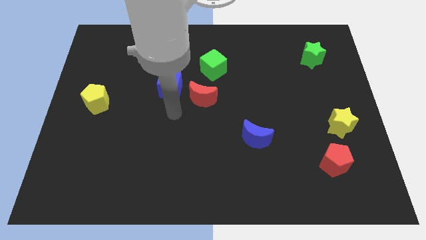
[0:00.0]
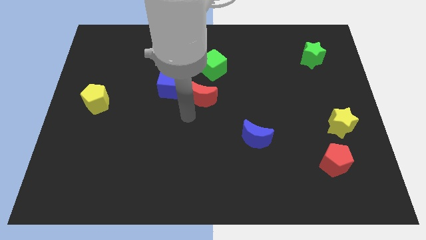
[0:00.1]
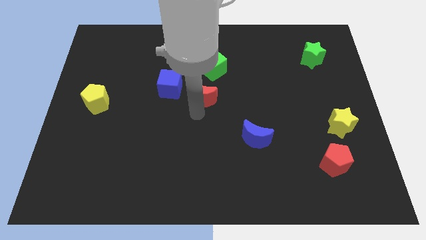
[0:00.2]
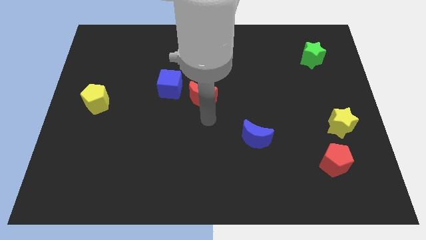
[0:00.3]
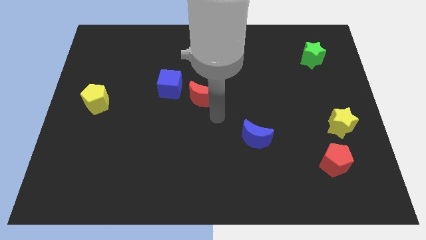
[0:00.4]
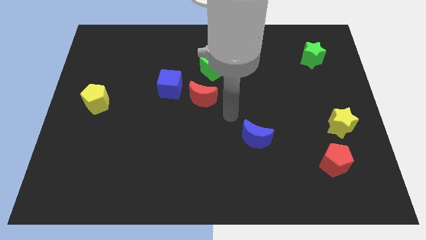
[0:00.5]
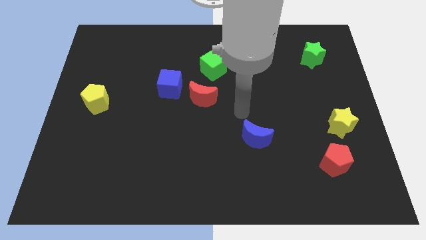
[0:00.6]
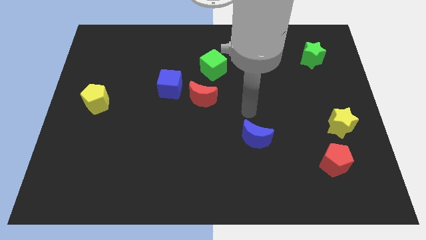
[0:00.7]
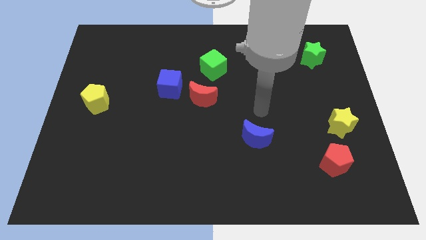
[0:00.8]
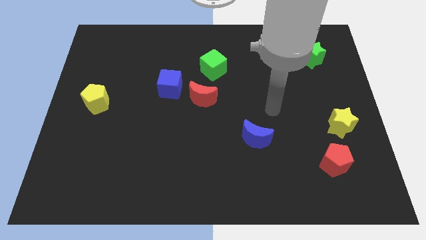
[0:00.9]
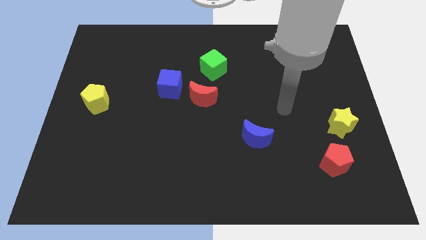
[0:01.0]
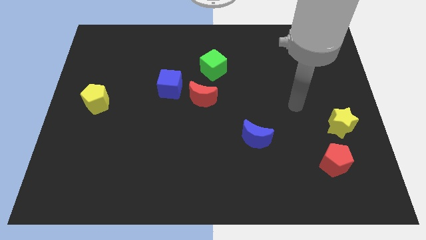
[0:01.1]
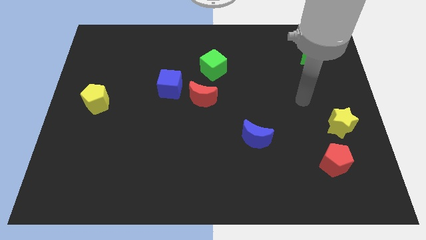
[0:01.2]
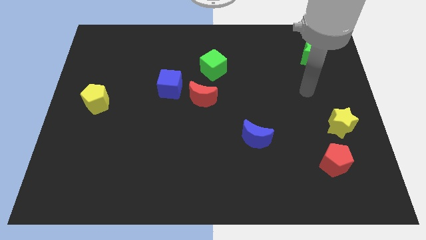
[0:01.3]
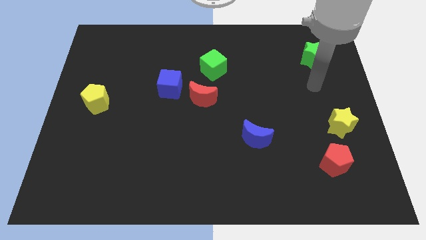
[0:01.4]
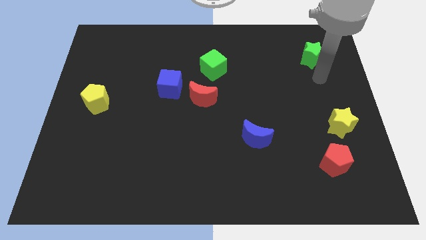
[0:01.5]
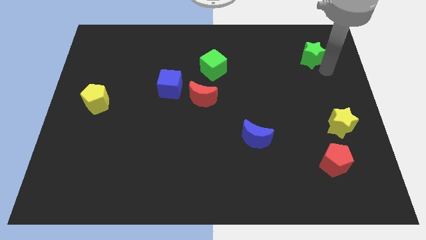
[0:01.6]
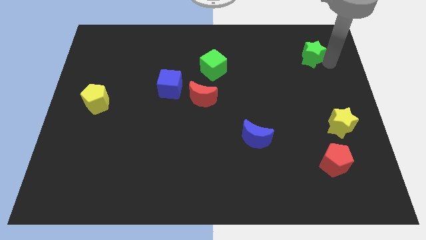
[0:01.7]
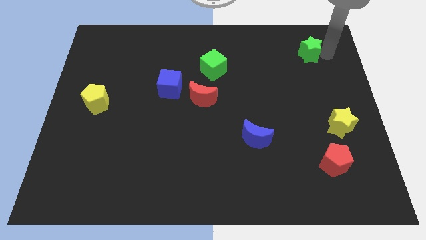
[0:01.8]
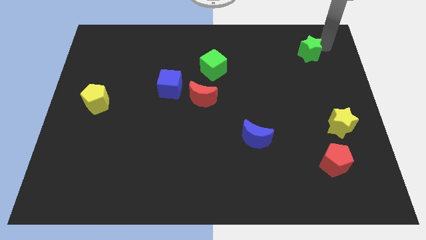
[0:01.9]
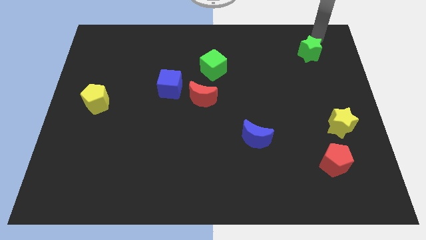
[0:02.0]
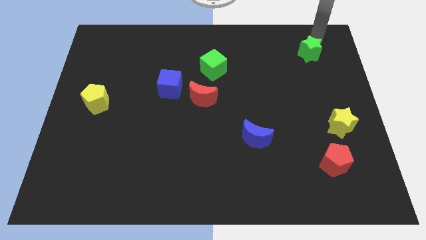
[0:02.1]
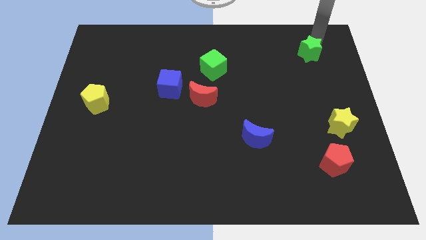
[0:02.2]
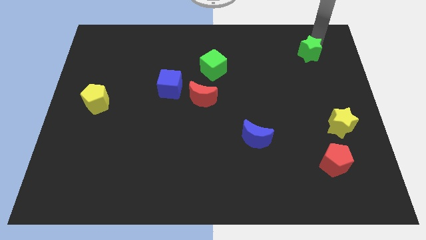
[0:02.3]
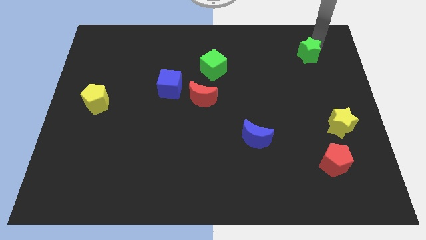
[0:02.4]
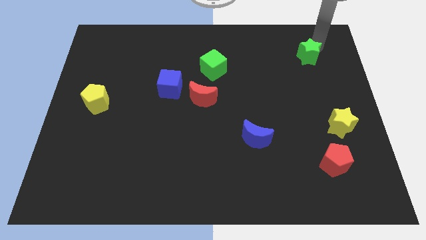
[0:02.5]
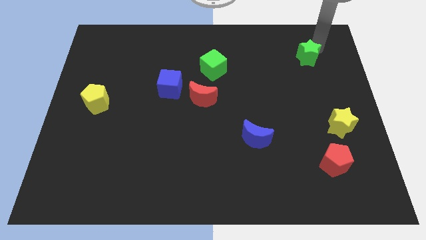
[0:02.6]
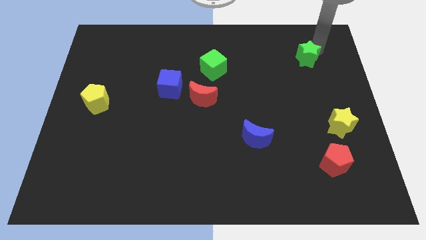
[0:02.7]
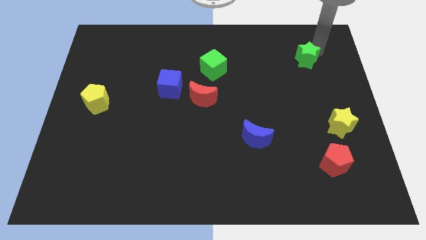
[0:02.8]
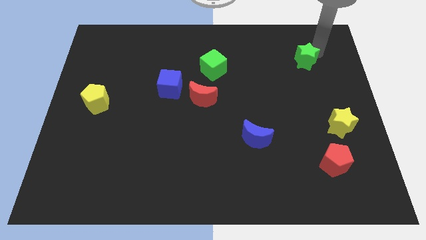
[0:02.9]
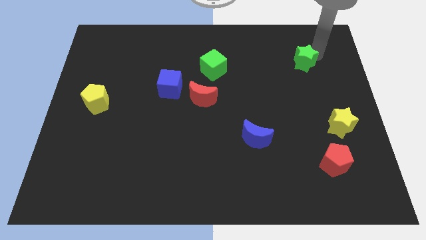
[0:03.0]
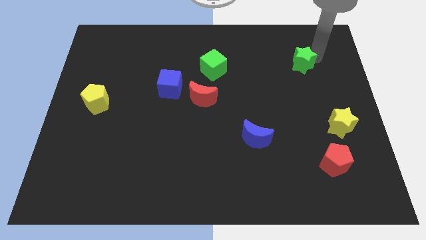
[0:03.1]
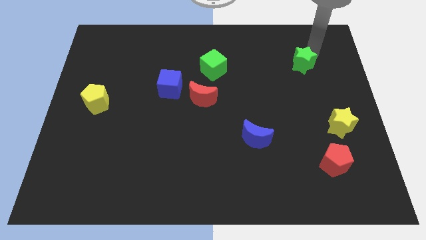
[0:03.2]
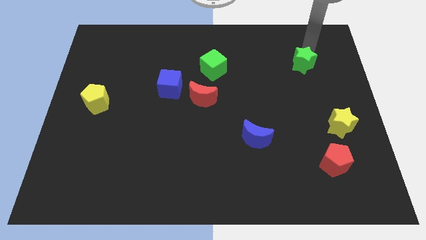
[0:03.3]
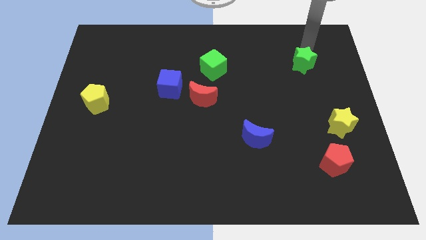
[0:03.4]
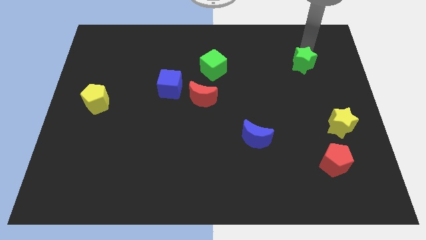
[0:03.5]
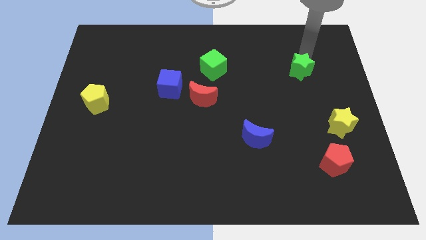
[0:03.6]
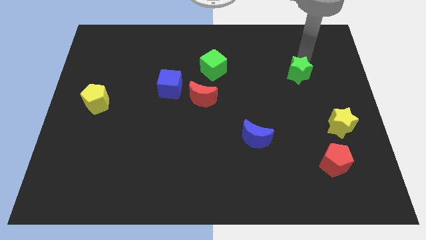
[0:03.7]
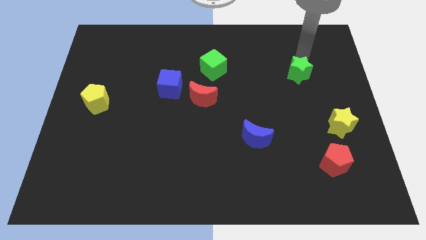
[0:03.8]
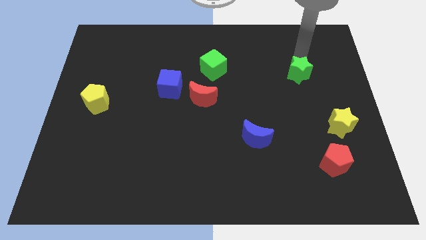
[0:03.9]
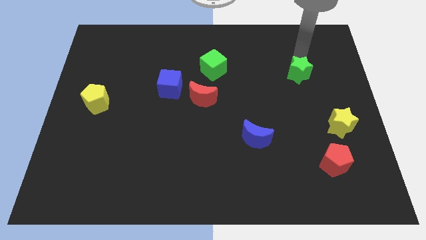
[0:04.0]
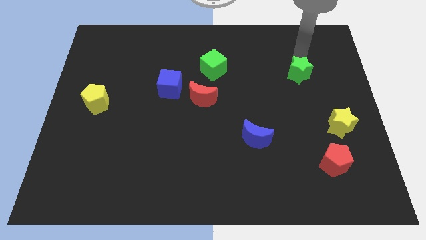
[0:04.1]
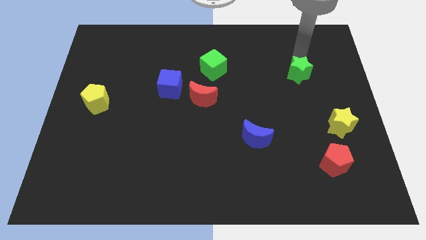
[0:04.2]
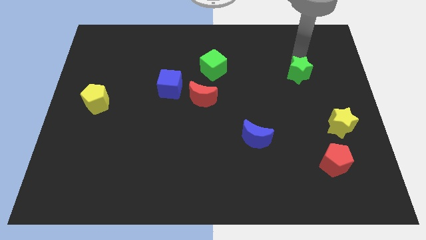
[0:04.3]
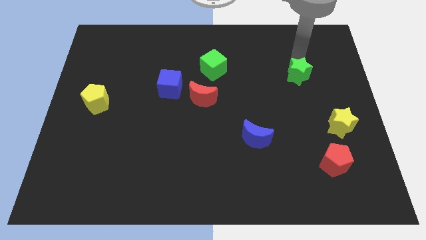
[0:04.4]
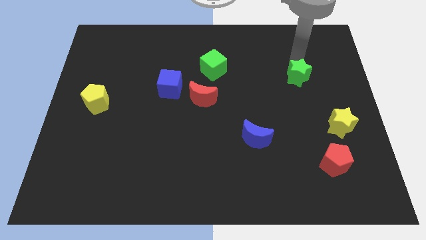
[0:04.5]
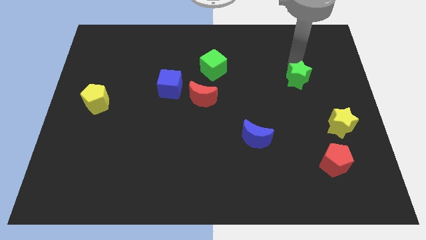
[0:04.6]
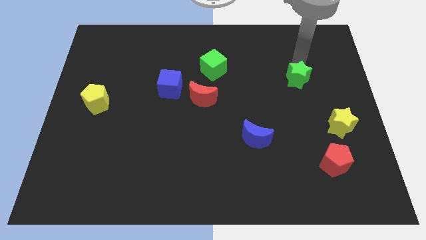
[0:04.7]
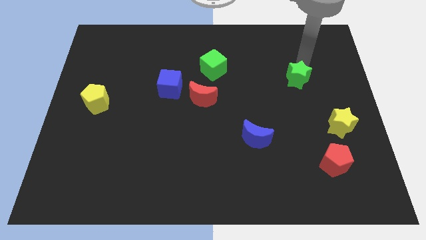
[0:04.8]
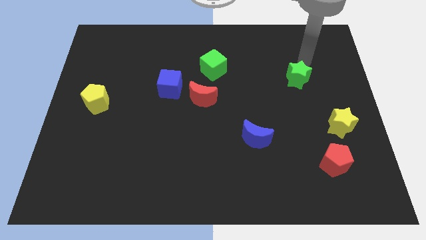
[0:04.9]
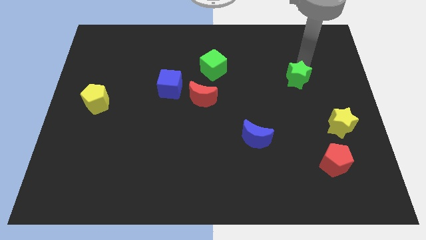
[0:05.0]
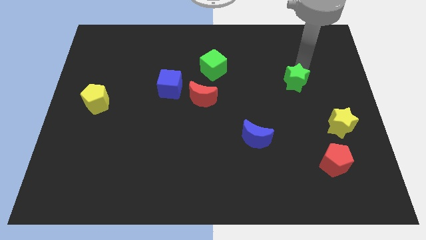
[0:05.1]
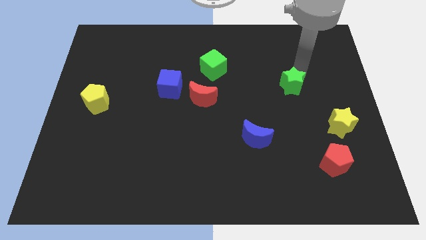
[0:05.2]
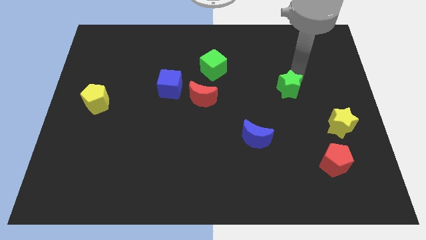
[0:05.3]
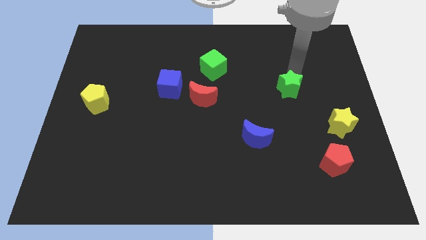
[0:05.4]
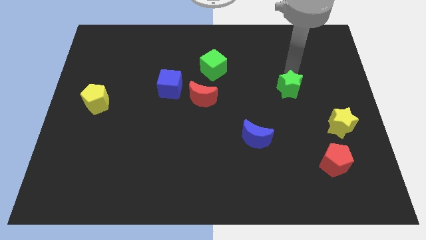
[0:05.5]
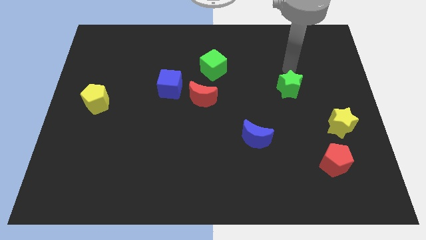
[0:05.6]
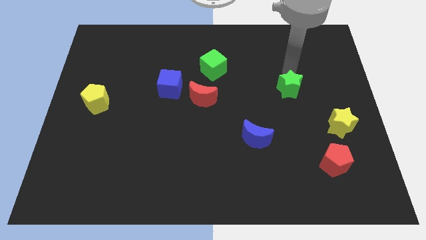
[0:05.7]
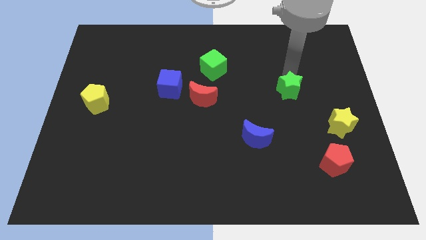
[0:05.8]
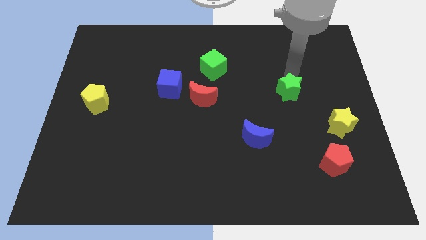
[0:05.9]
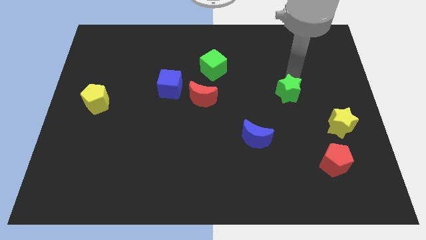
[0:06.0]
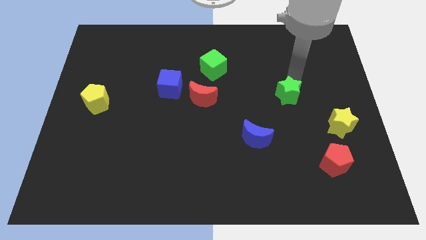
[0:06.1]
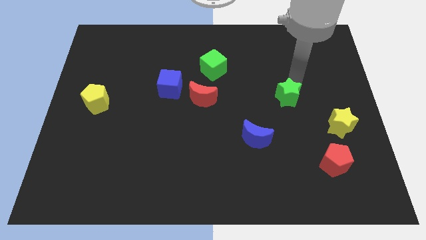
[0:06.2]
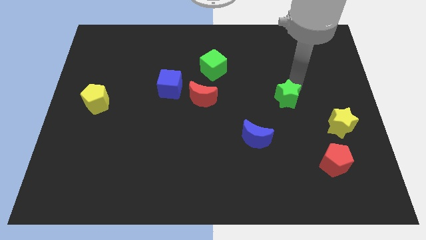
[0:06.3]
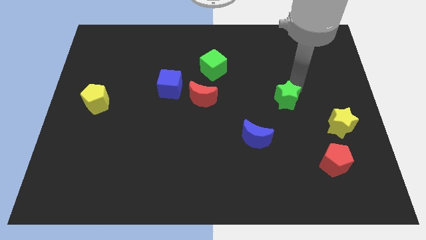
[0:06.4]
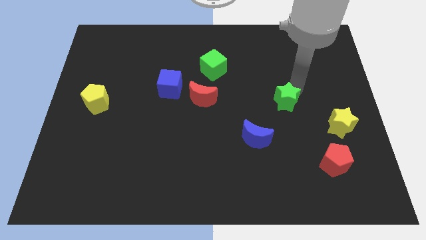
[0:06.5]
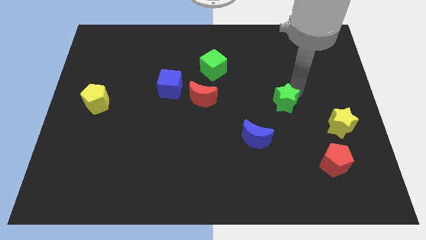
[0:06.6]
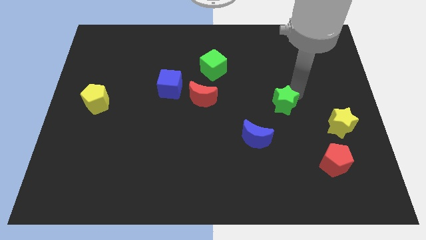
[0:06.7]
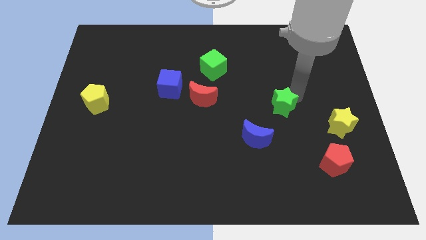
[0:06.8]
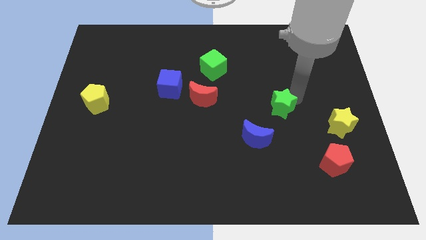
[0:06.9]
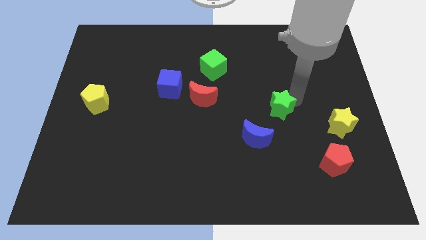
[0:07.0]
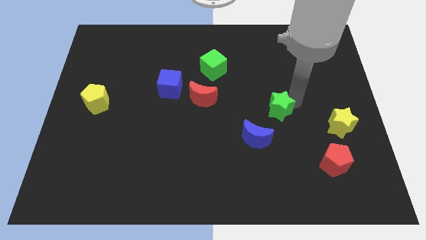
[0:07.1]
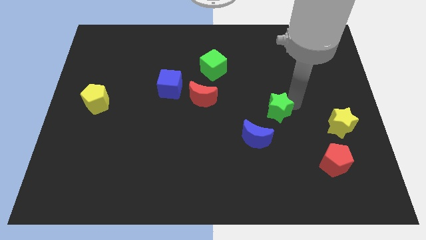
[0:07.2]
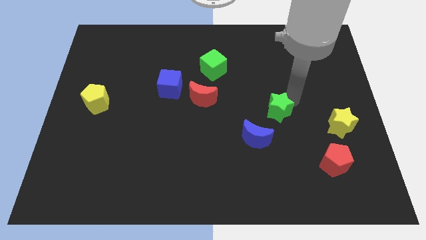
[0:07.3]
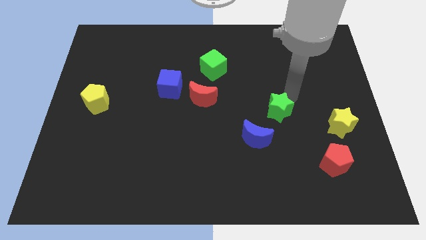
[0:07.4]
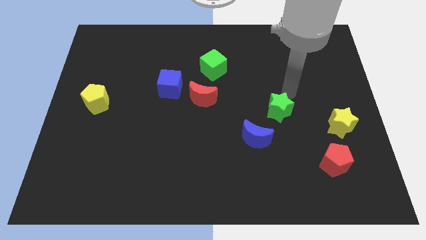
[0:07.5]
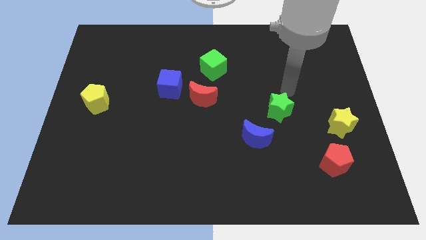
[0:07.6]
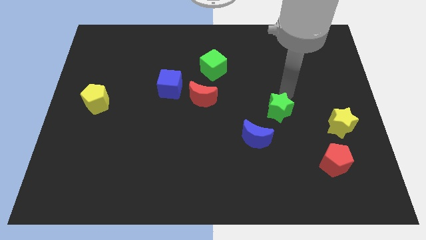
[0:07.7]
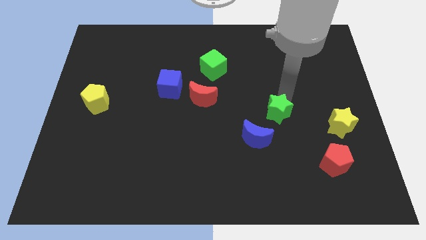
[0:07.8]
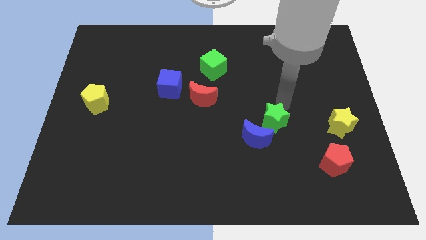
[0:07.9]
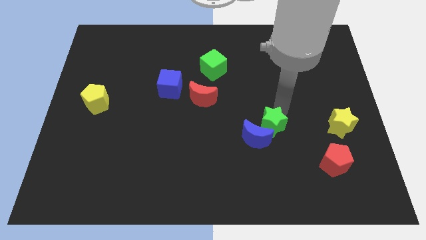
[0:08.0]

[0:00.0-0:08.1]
push the green star towards the blue moon
